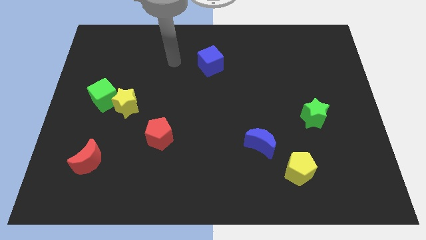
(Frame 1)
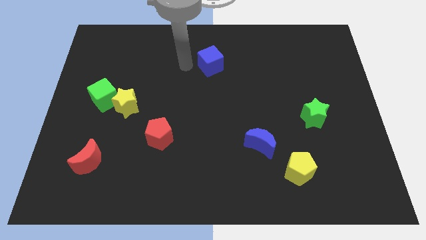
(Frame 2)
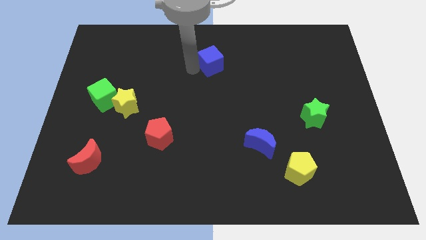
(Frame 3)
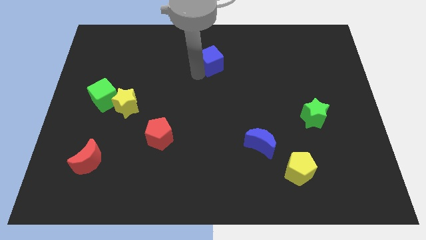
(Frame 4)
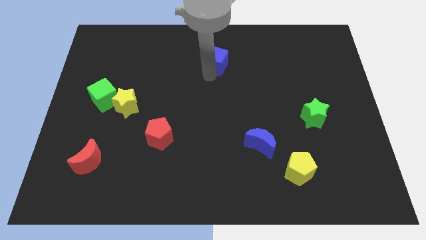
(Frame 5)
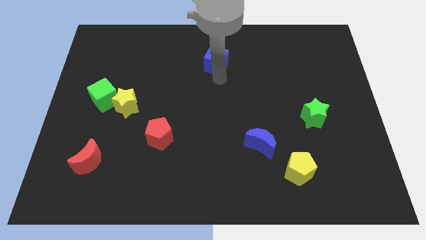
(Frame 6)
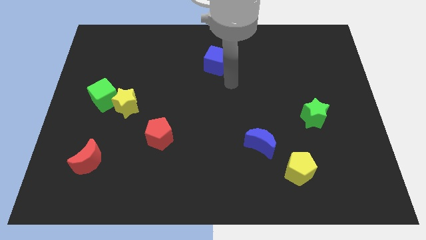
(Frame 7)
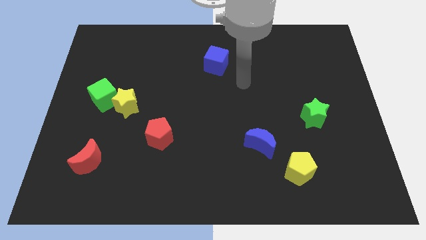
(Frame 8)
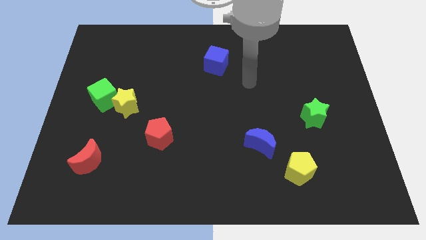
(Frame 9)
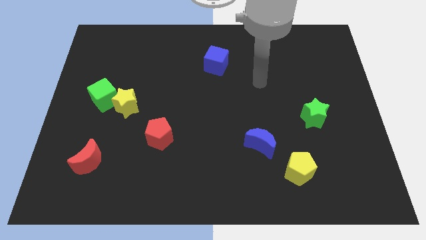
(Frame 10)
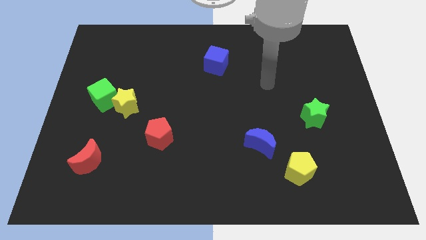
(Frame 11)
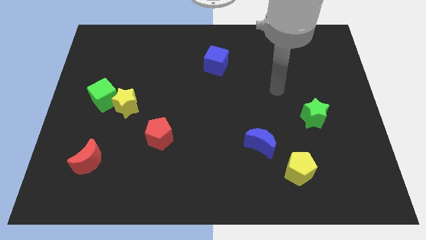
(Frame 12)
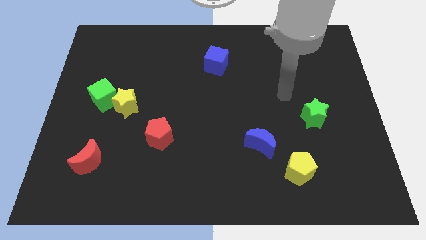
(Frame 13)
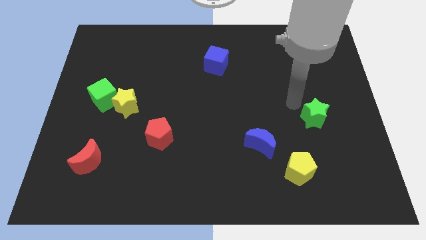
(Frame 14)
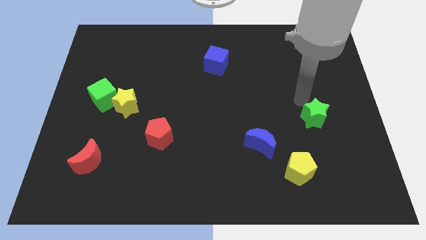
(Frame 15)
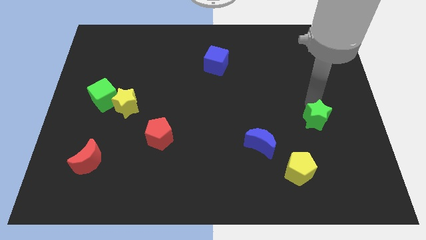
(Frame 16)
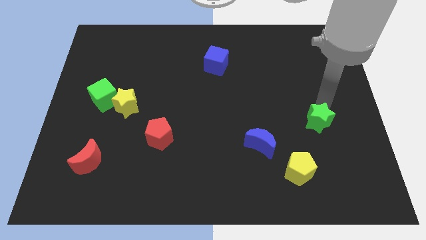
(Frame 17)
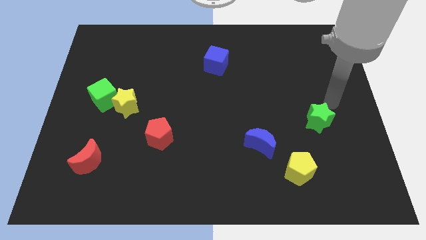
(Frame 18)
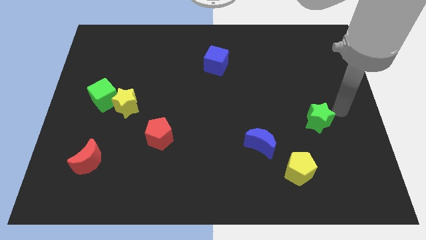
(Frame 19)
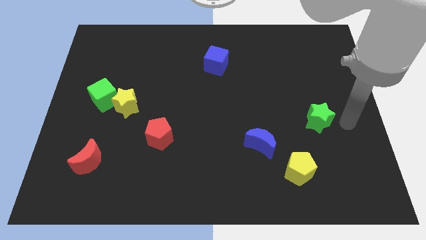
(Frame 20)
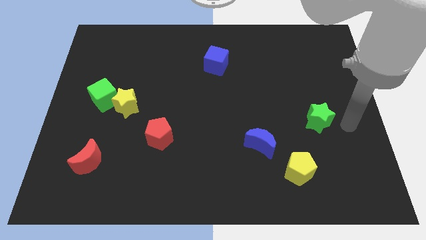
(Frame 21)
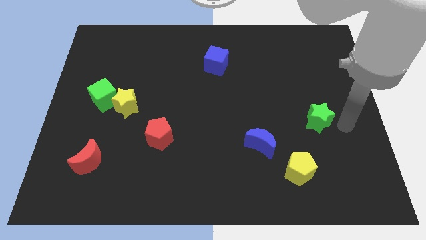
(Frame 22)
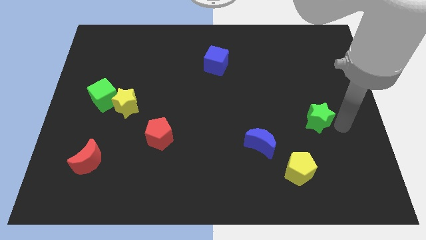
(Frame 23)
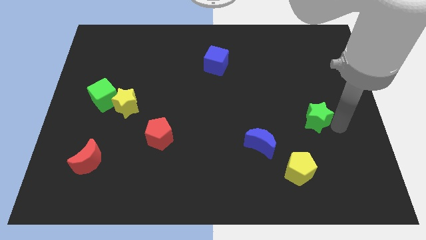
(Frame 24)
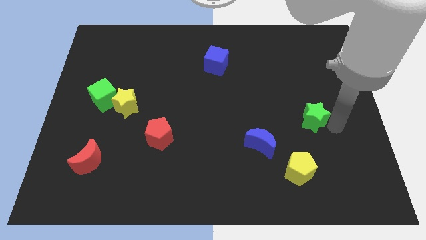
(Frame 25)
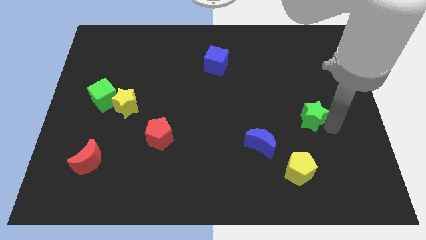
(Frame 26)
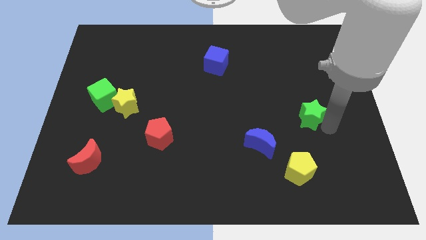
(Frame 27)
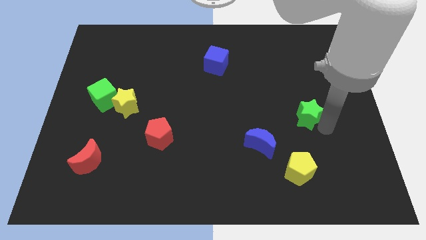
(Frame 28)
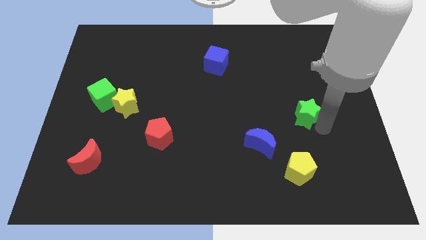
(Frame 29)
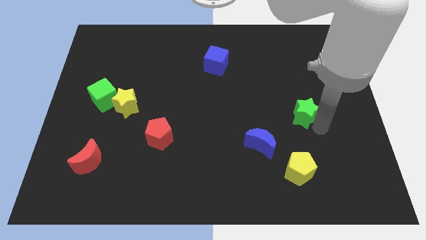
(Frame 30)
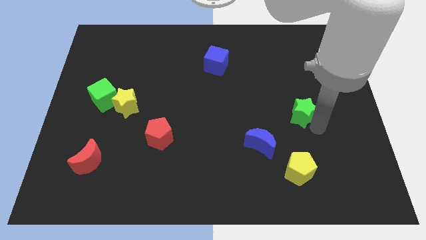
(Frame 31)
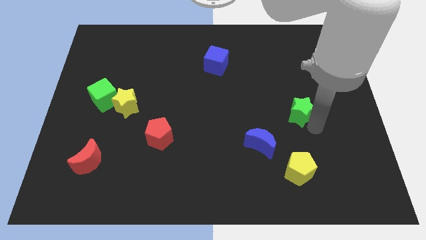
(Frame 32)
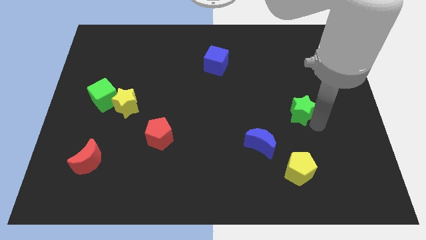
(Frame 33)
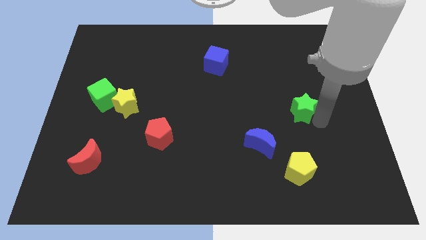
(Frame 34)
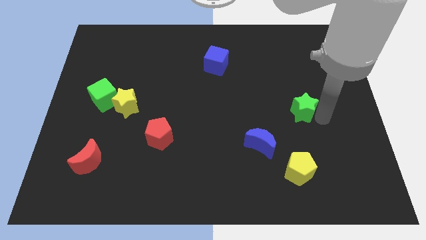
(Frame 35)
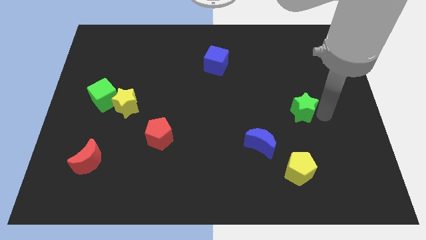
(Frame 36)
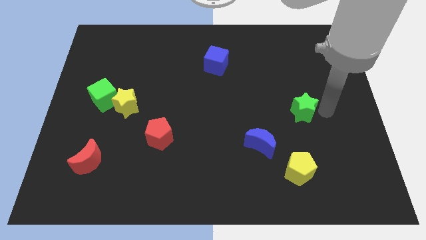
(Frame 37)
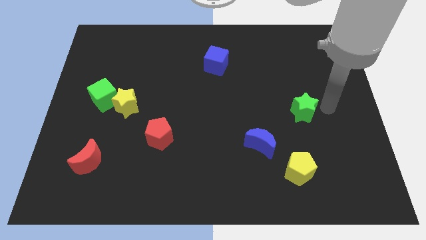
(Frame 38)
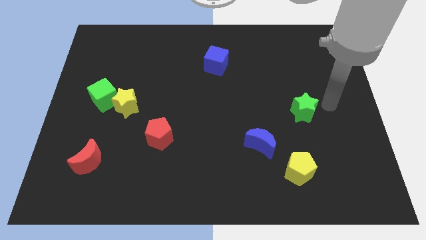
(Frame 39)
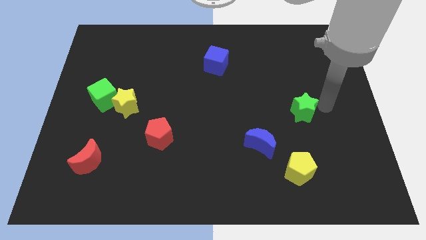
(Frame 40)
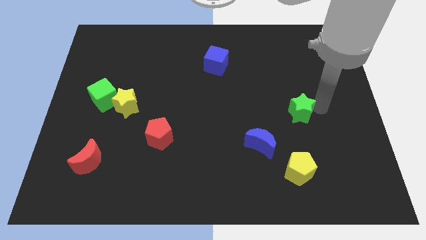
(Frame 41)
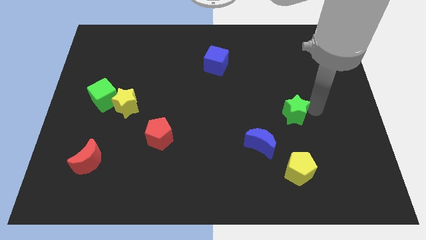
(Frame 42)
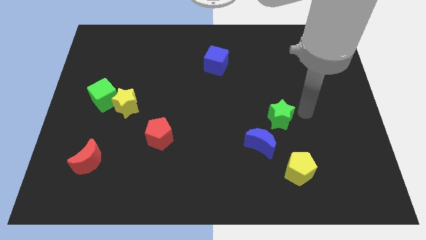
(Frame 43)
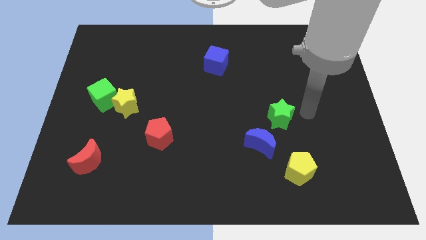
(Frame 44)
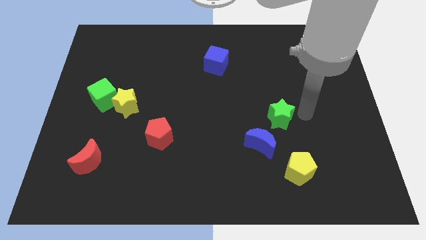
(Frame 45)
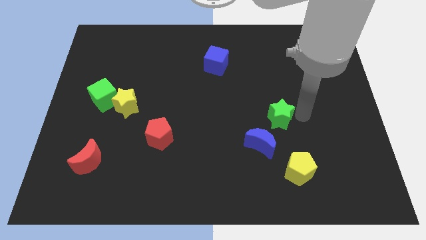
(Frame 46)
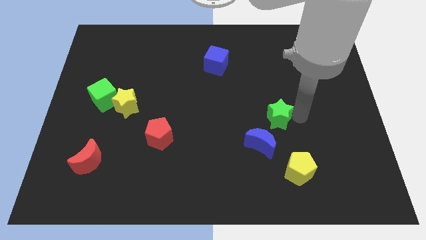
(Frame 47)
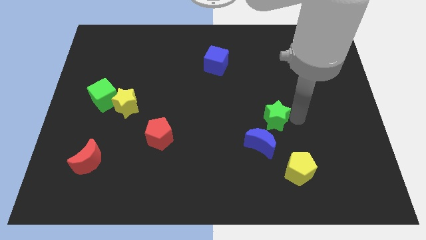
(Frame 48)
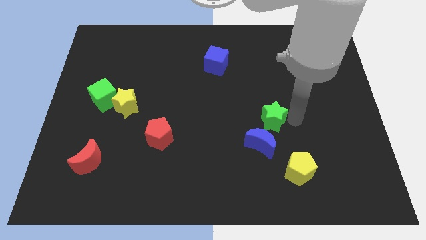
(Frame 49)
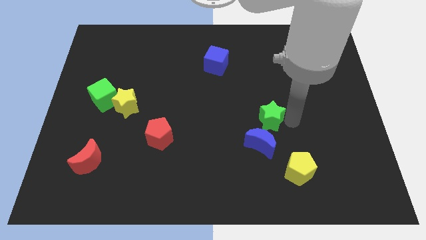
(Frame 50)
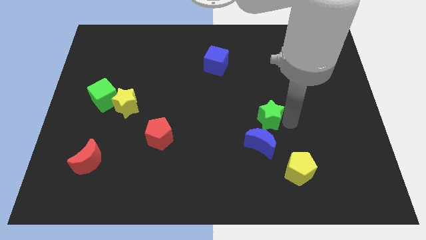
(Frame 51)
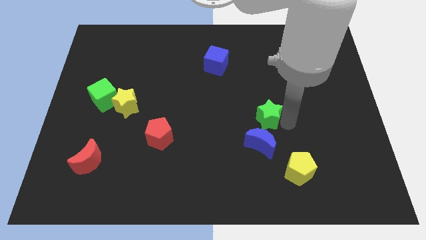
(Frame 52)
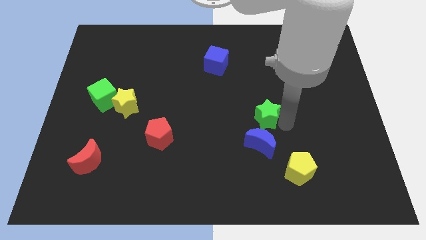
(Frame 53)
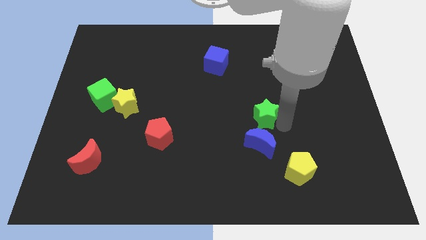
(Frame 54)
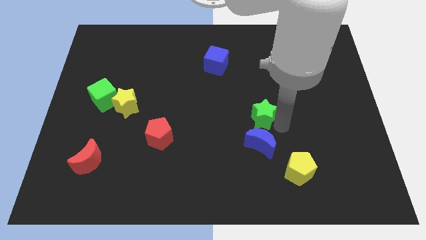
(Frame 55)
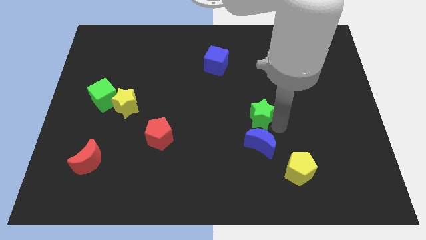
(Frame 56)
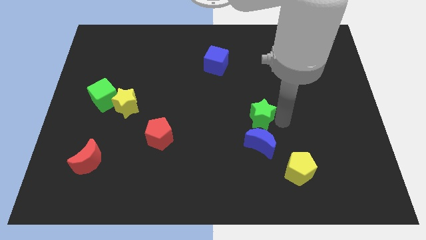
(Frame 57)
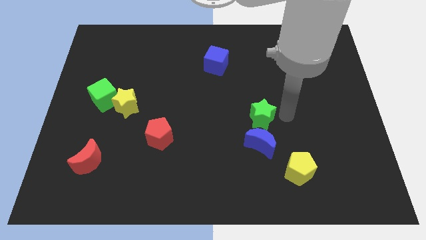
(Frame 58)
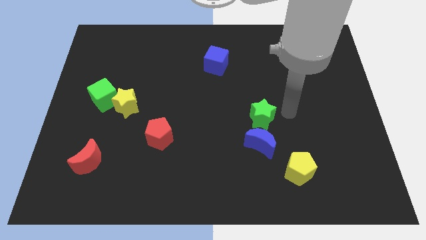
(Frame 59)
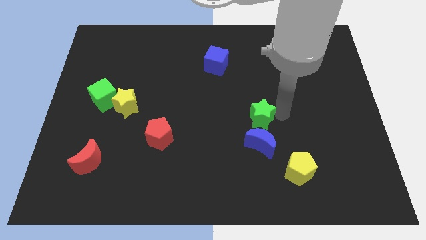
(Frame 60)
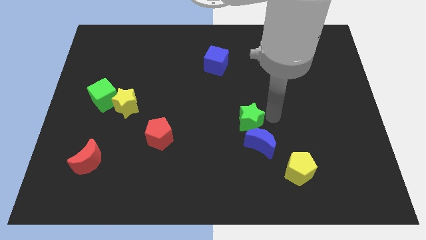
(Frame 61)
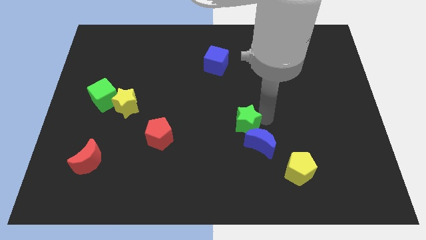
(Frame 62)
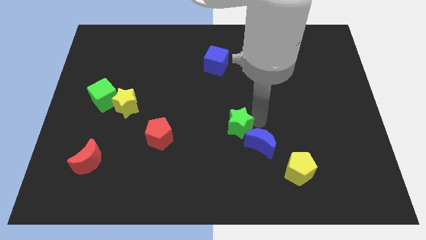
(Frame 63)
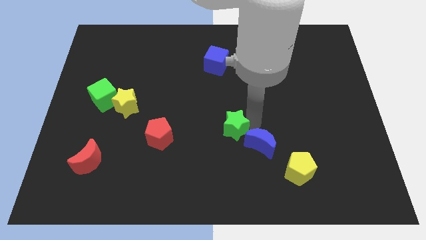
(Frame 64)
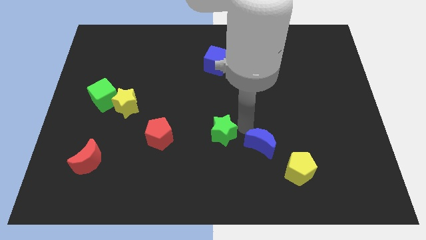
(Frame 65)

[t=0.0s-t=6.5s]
move the green star left

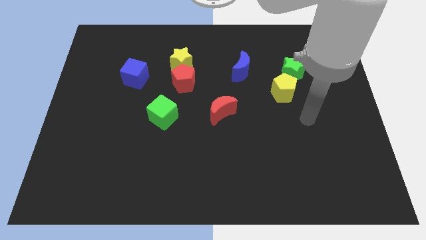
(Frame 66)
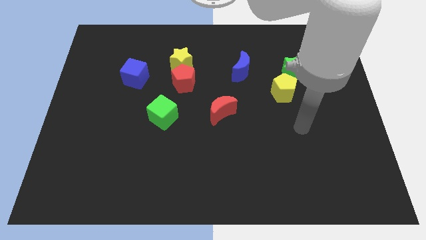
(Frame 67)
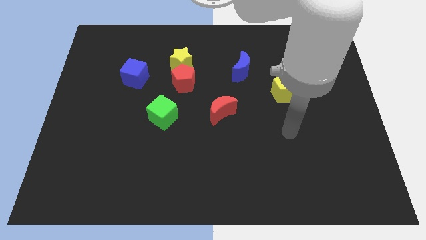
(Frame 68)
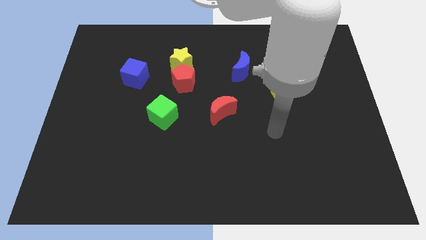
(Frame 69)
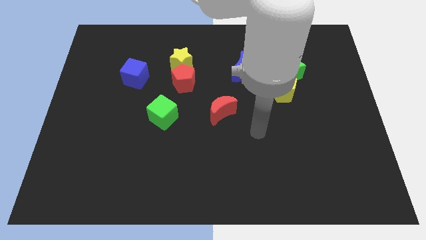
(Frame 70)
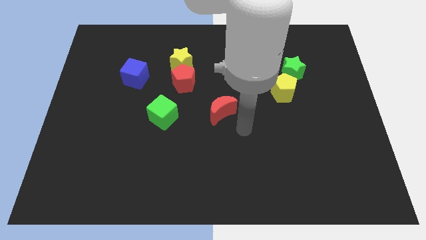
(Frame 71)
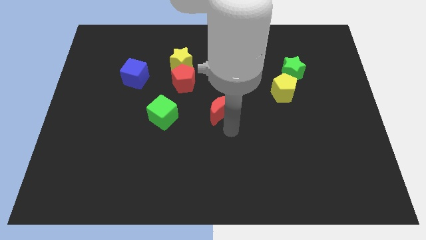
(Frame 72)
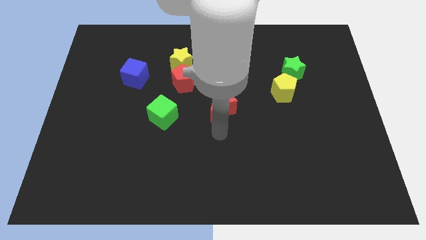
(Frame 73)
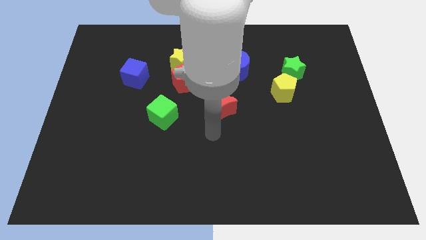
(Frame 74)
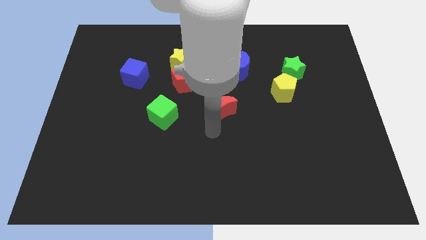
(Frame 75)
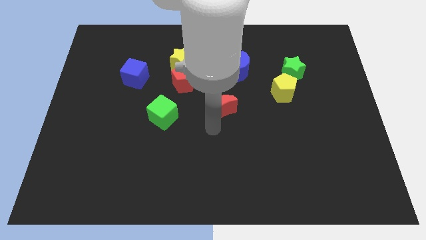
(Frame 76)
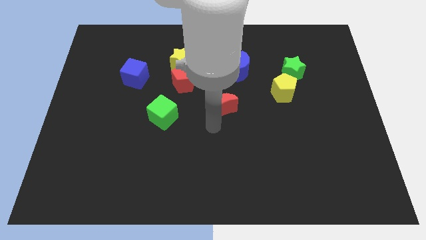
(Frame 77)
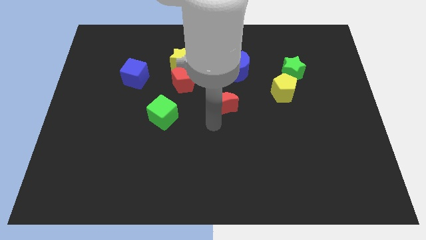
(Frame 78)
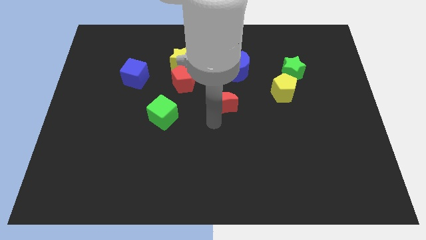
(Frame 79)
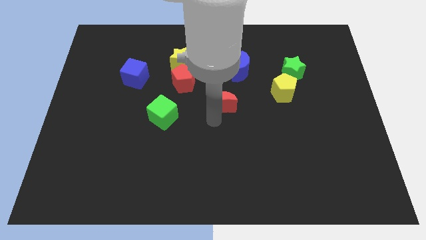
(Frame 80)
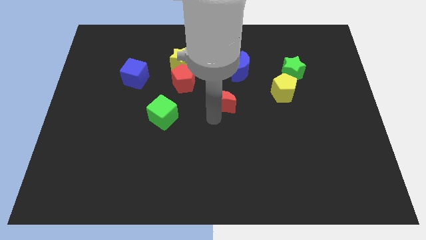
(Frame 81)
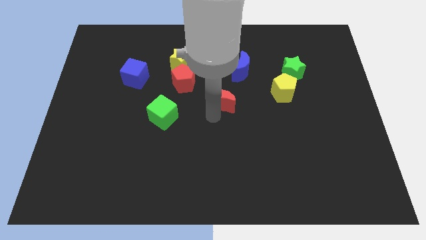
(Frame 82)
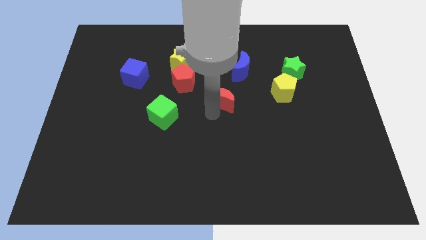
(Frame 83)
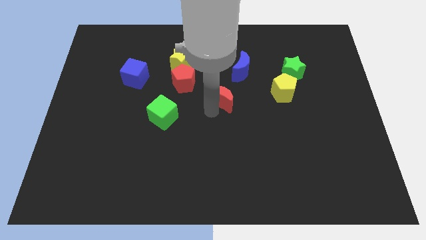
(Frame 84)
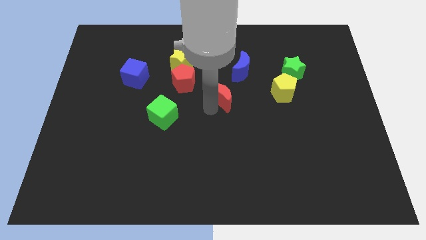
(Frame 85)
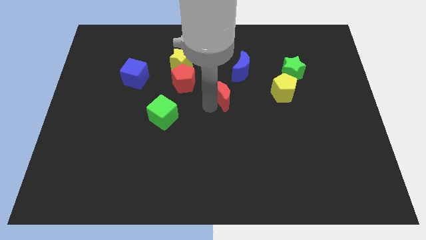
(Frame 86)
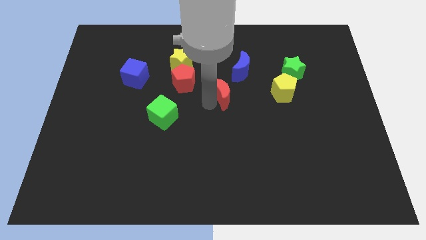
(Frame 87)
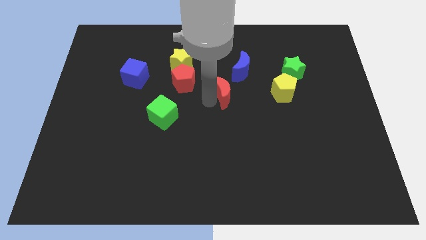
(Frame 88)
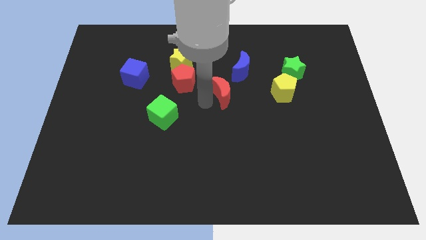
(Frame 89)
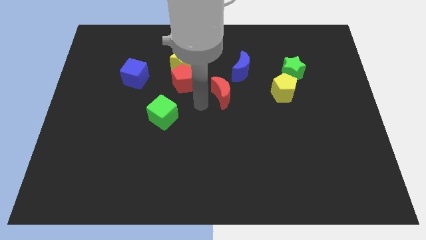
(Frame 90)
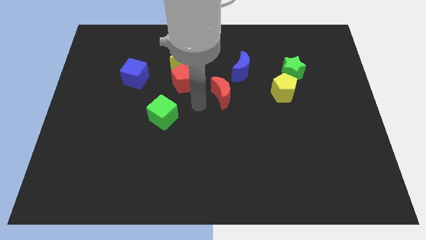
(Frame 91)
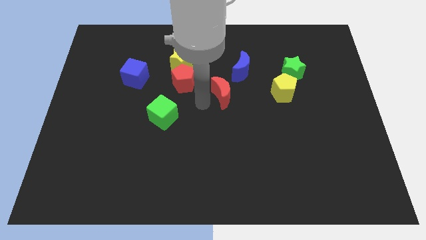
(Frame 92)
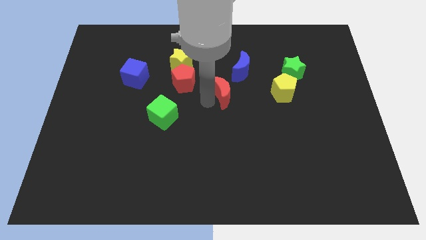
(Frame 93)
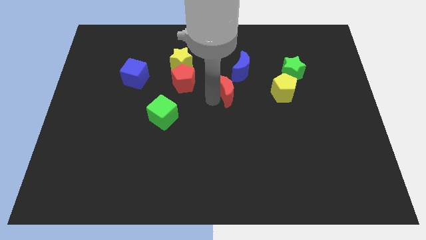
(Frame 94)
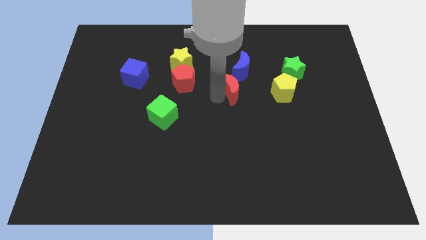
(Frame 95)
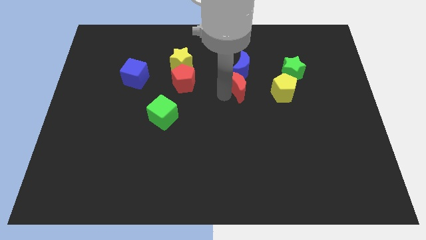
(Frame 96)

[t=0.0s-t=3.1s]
slightly move the red moon upwards and to the right diagonally
